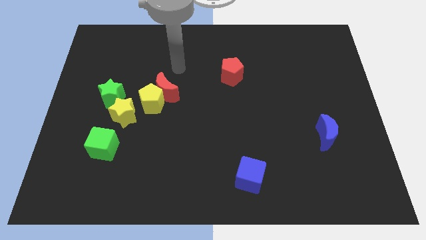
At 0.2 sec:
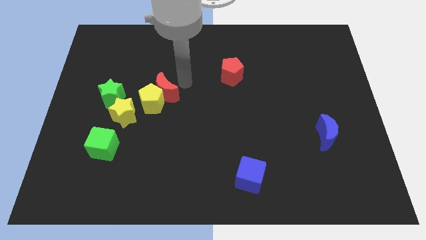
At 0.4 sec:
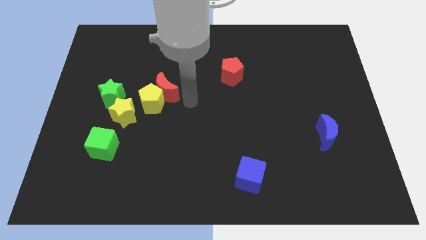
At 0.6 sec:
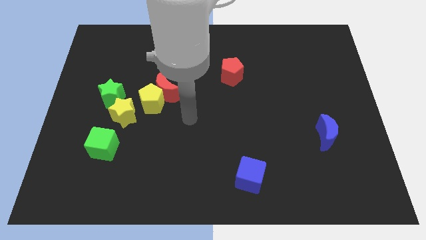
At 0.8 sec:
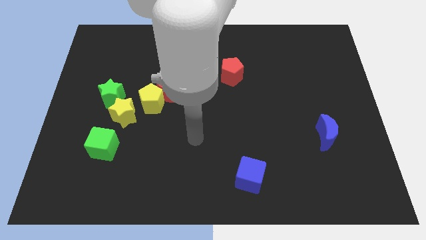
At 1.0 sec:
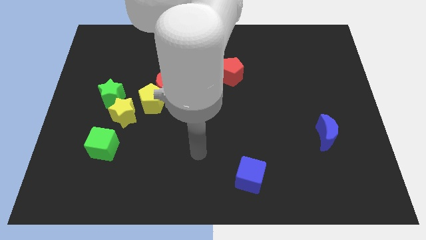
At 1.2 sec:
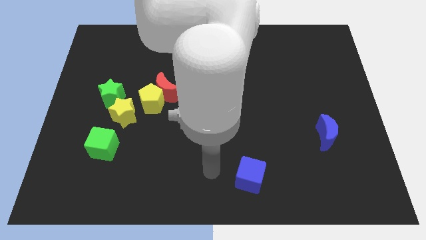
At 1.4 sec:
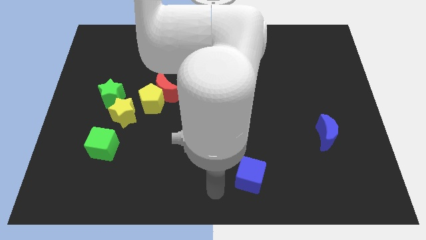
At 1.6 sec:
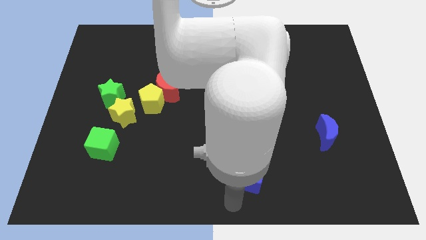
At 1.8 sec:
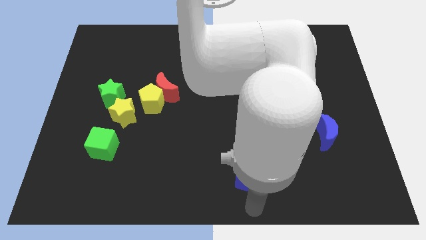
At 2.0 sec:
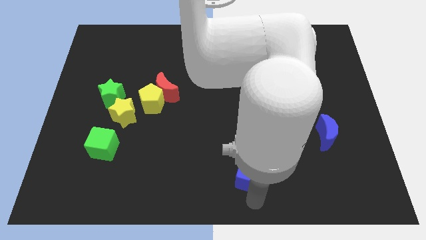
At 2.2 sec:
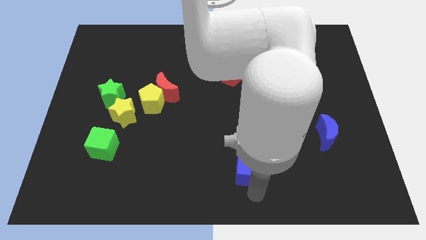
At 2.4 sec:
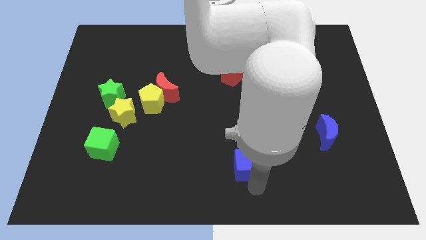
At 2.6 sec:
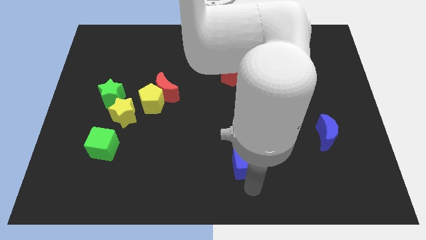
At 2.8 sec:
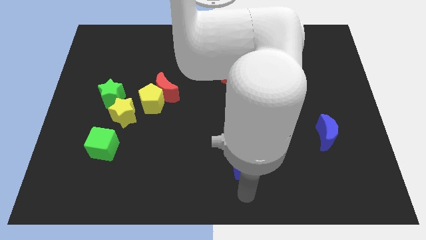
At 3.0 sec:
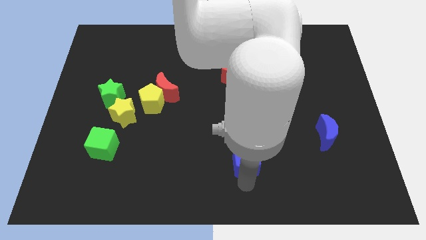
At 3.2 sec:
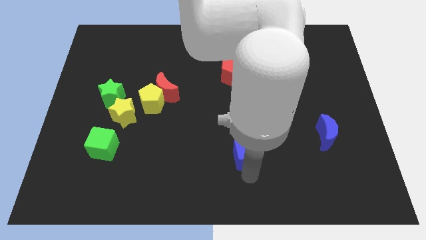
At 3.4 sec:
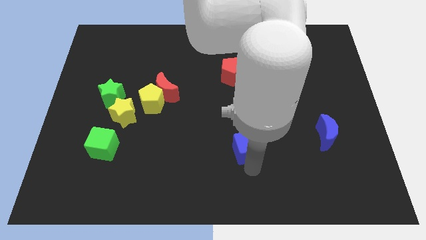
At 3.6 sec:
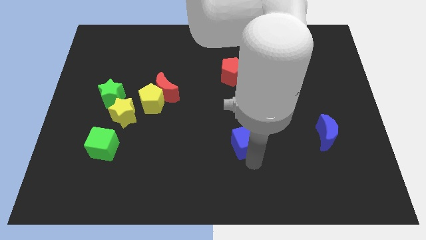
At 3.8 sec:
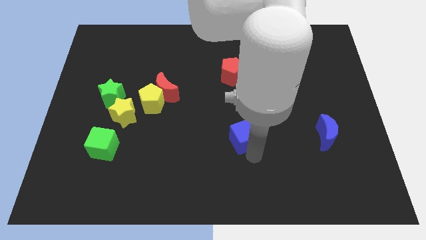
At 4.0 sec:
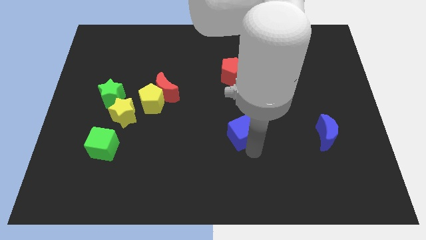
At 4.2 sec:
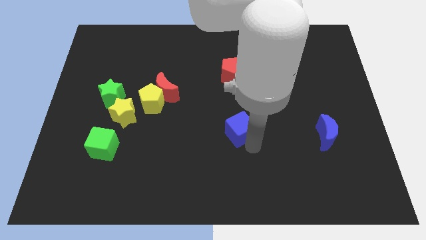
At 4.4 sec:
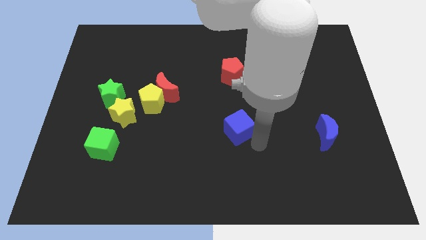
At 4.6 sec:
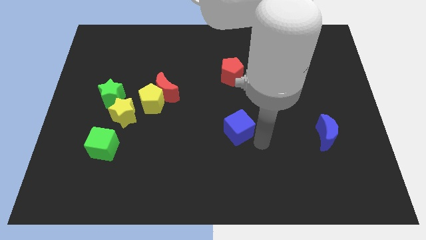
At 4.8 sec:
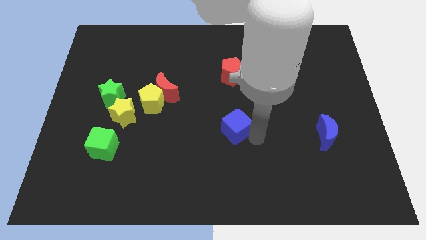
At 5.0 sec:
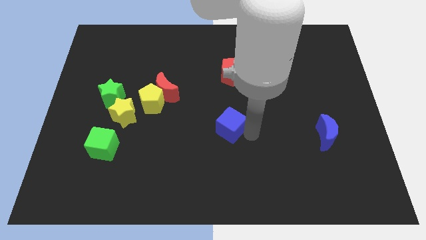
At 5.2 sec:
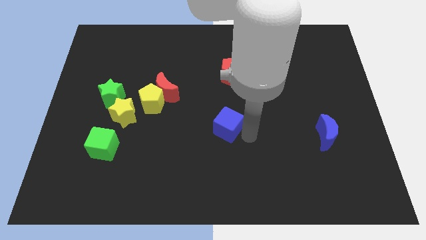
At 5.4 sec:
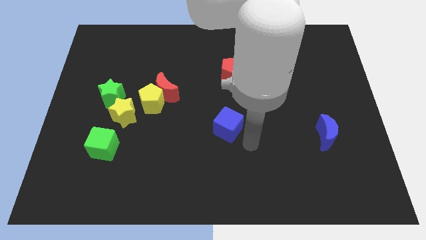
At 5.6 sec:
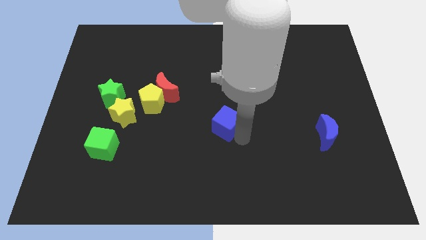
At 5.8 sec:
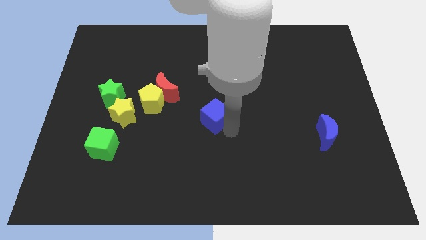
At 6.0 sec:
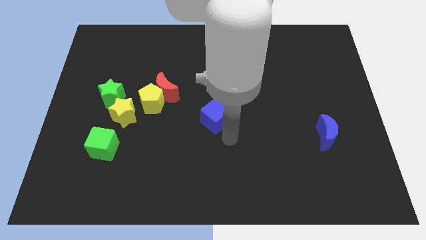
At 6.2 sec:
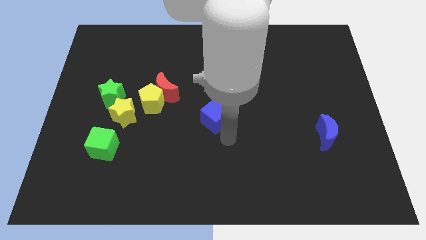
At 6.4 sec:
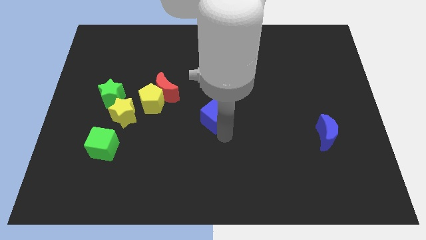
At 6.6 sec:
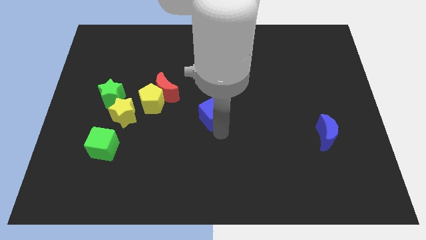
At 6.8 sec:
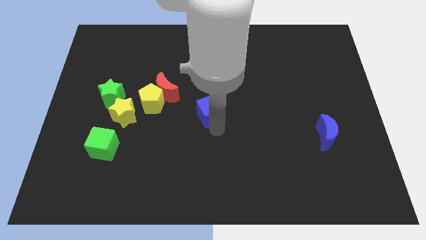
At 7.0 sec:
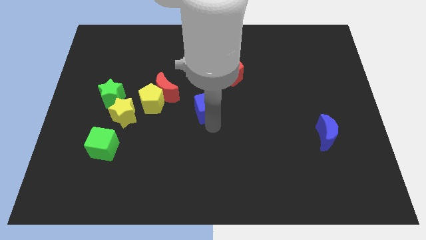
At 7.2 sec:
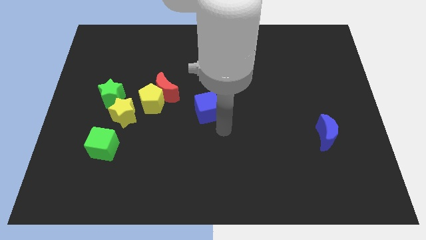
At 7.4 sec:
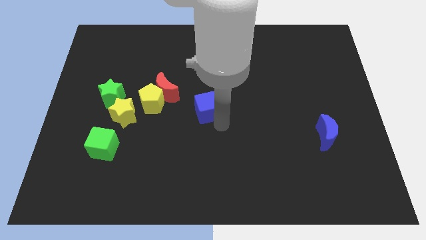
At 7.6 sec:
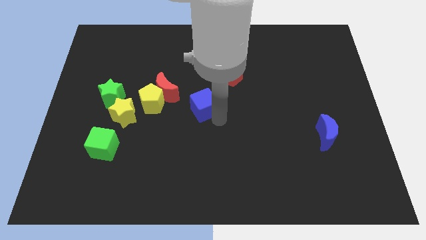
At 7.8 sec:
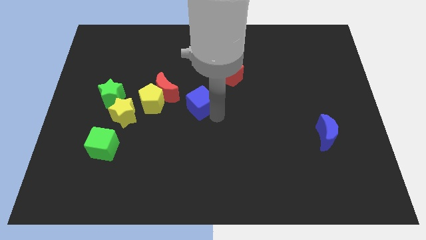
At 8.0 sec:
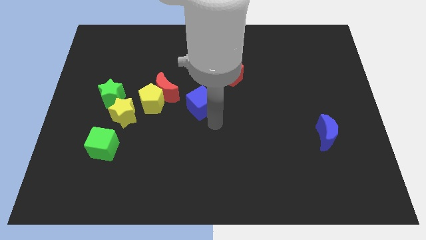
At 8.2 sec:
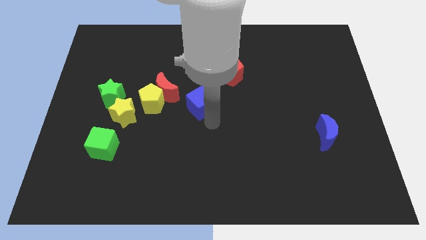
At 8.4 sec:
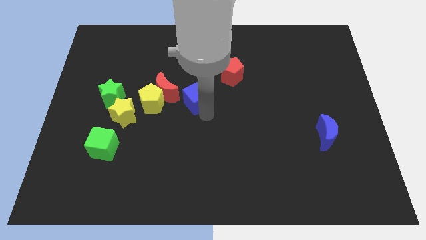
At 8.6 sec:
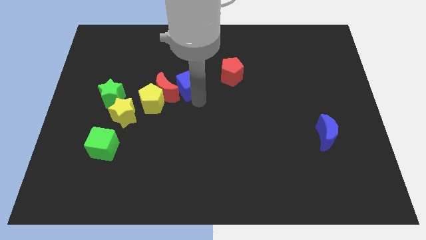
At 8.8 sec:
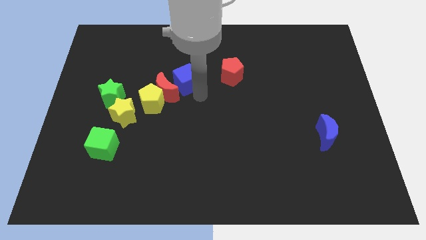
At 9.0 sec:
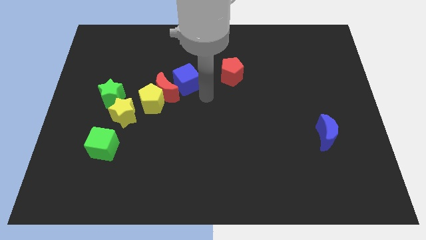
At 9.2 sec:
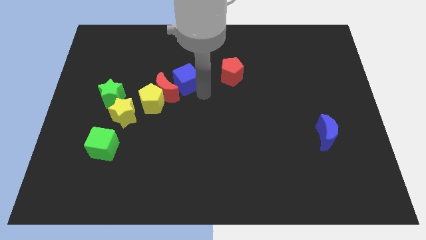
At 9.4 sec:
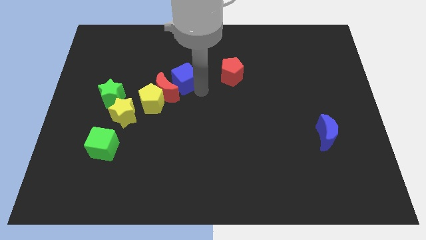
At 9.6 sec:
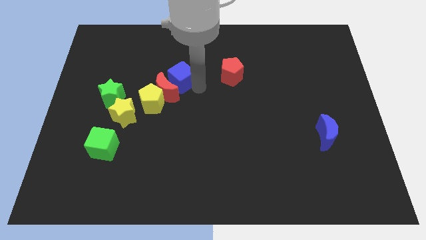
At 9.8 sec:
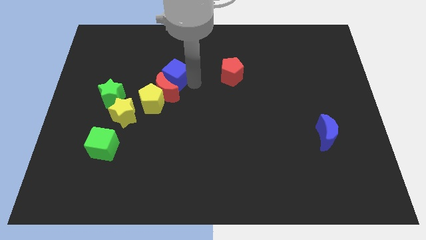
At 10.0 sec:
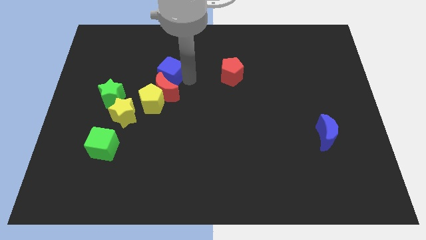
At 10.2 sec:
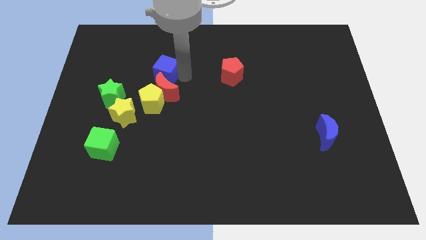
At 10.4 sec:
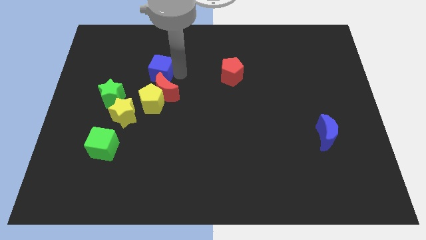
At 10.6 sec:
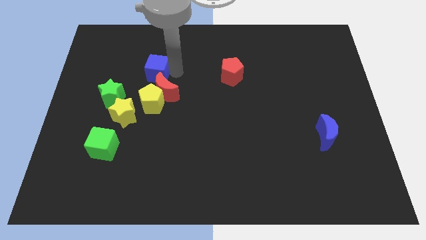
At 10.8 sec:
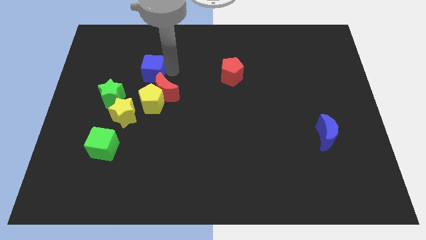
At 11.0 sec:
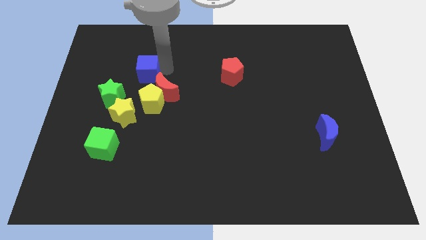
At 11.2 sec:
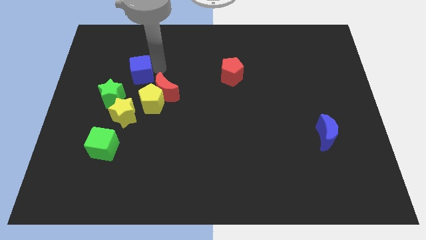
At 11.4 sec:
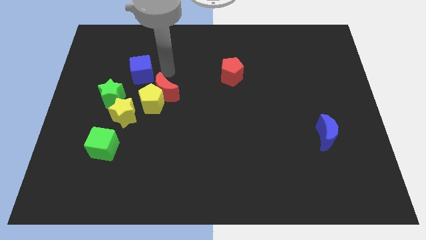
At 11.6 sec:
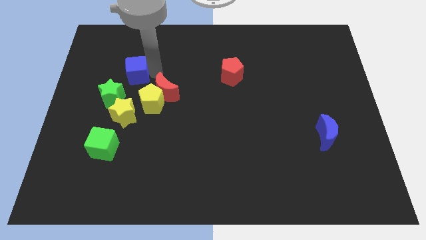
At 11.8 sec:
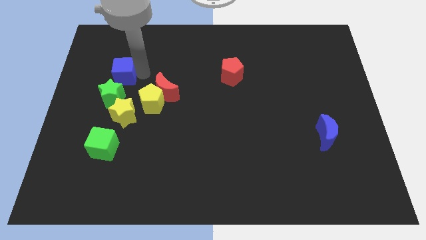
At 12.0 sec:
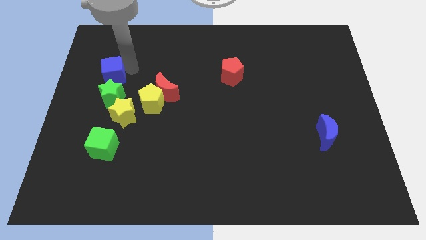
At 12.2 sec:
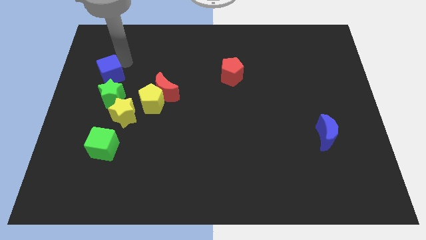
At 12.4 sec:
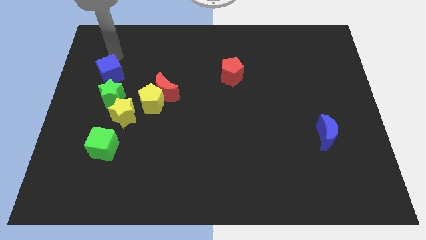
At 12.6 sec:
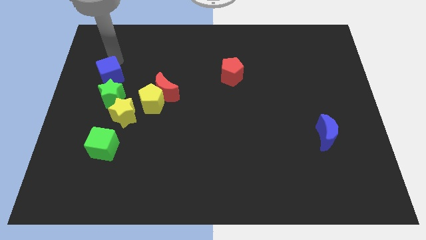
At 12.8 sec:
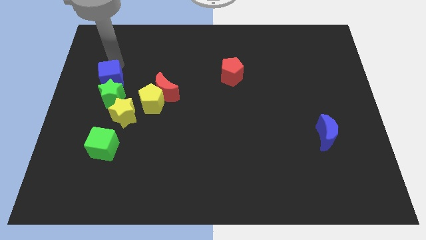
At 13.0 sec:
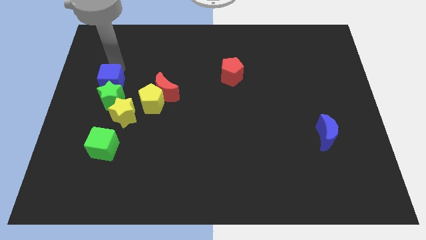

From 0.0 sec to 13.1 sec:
move the blue cube to the top left of the yellow star
